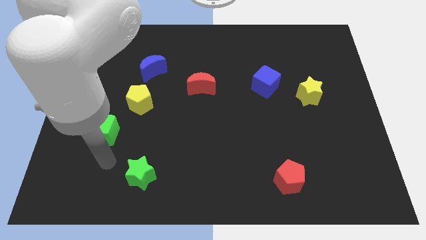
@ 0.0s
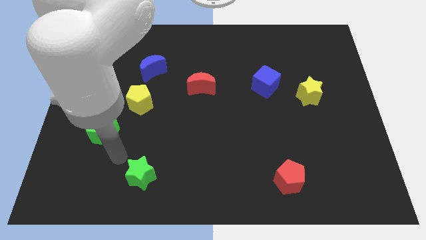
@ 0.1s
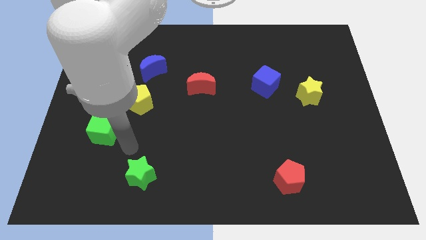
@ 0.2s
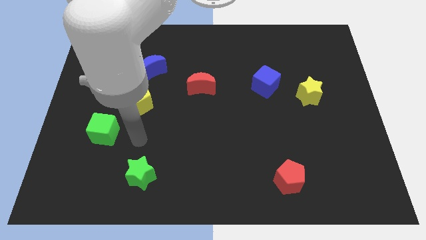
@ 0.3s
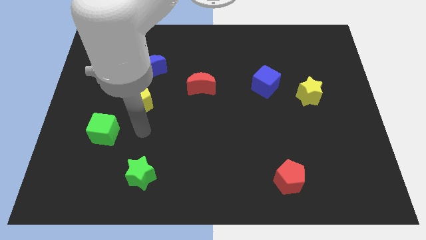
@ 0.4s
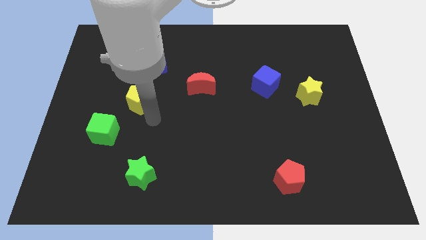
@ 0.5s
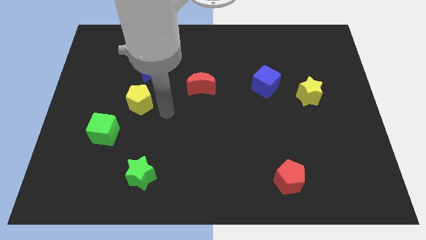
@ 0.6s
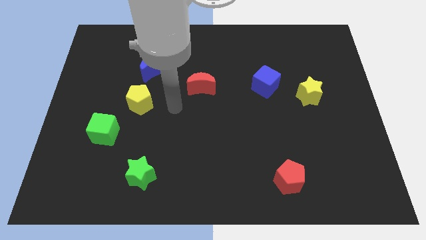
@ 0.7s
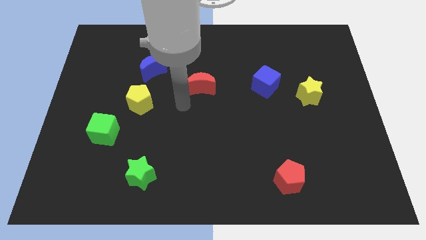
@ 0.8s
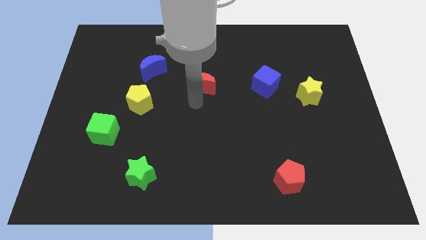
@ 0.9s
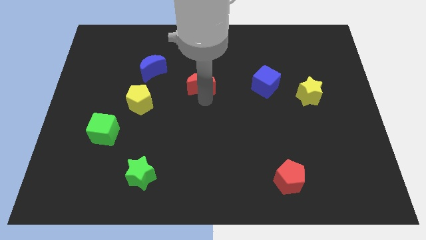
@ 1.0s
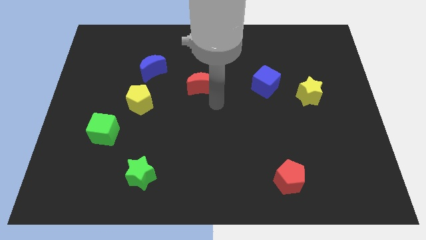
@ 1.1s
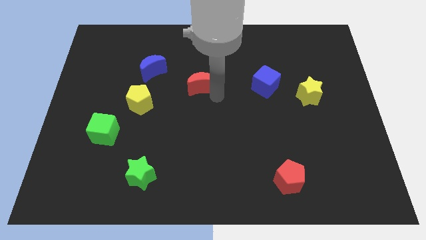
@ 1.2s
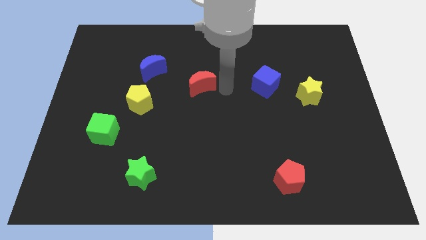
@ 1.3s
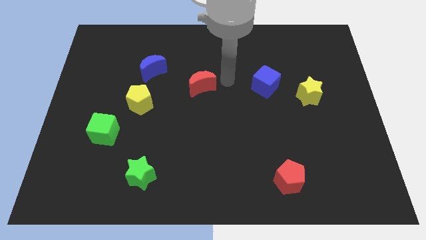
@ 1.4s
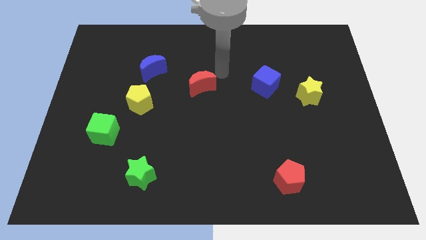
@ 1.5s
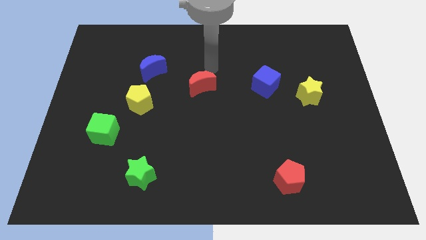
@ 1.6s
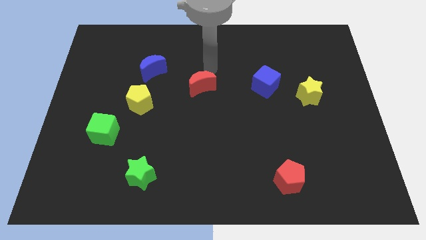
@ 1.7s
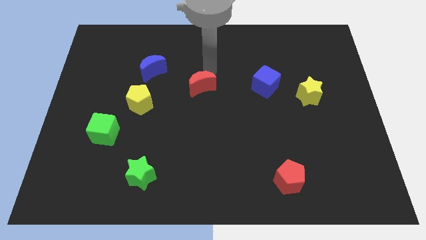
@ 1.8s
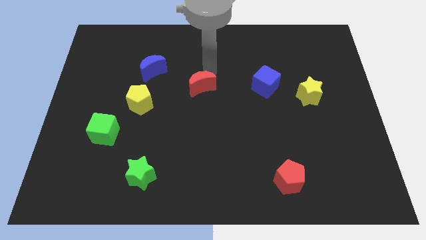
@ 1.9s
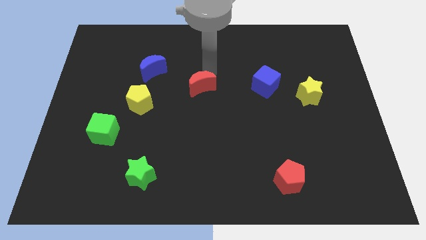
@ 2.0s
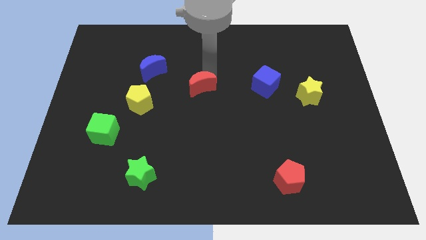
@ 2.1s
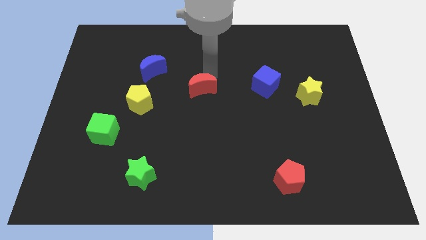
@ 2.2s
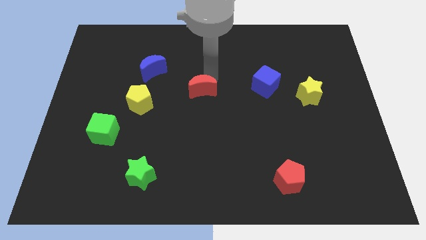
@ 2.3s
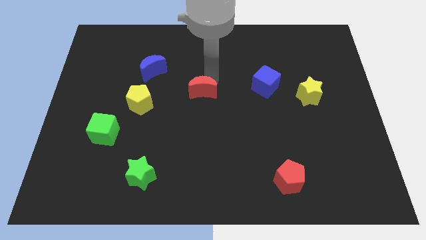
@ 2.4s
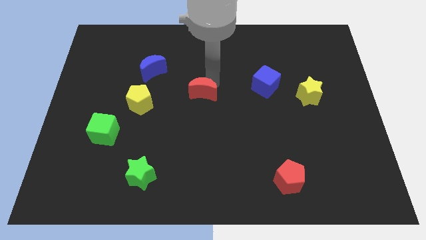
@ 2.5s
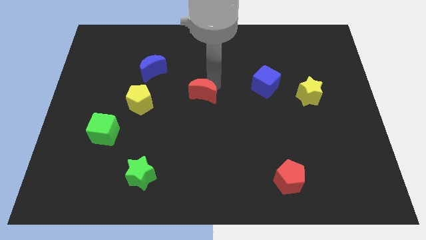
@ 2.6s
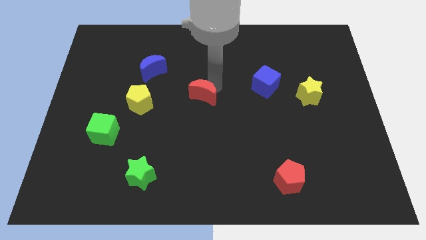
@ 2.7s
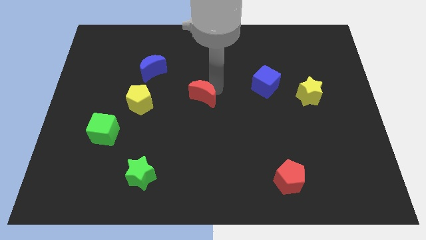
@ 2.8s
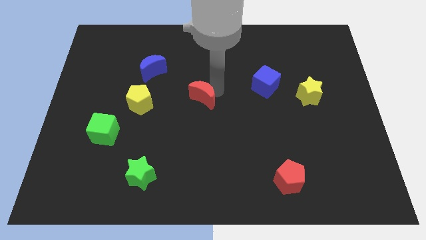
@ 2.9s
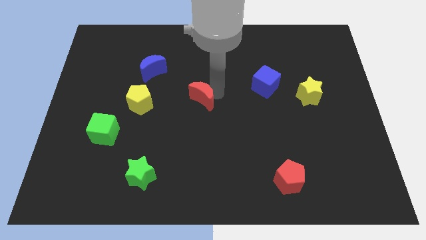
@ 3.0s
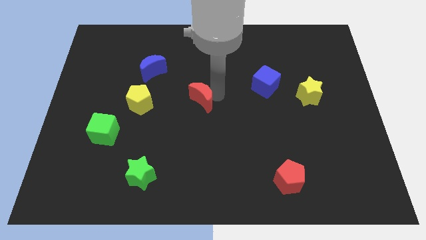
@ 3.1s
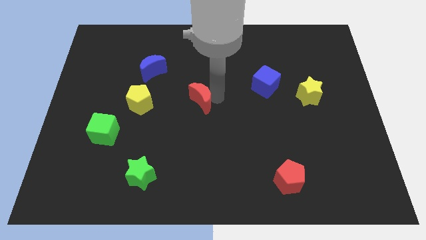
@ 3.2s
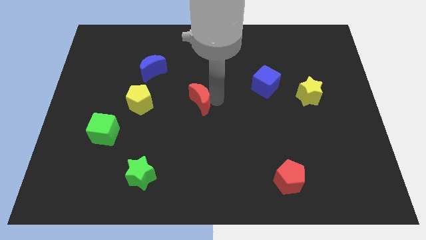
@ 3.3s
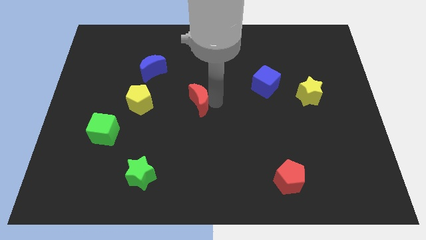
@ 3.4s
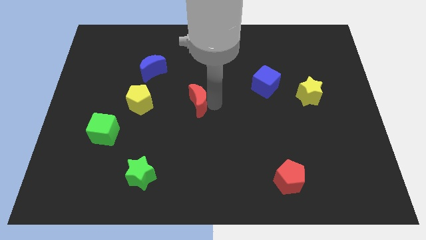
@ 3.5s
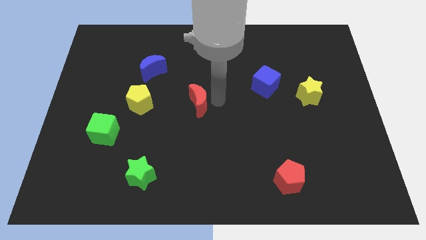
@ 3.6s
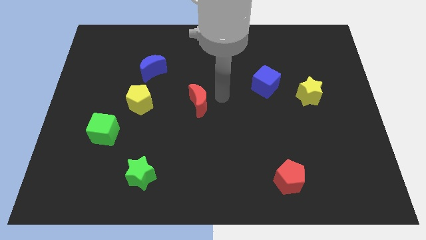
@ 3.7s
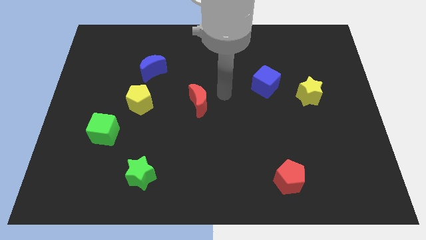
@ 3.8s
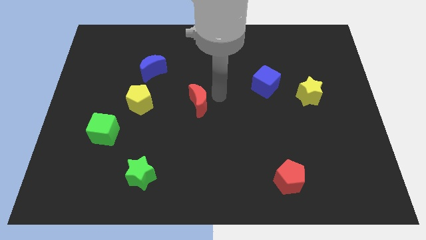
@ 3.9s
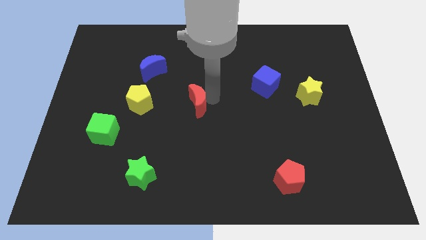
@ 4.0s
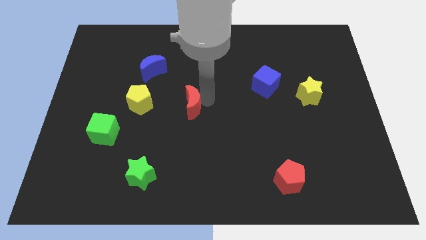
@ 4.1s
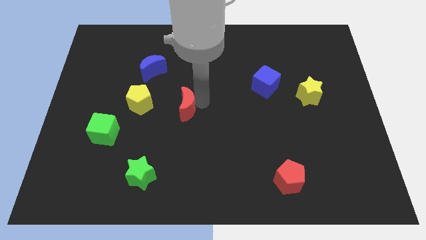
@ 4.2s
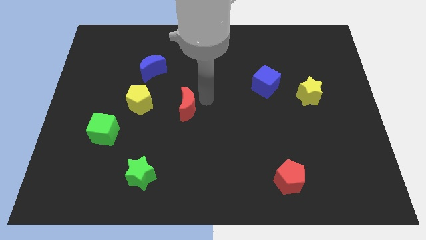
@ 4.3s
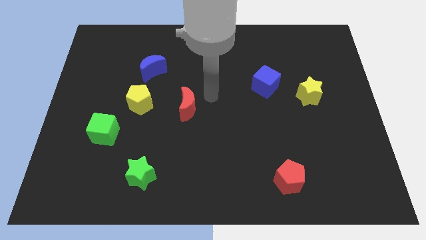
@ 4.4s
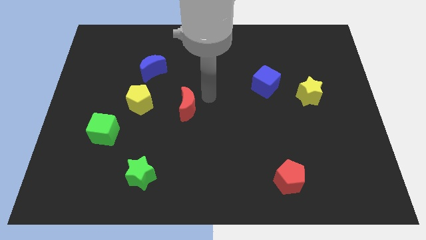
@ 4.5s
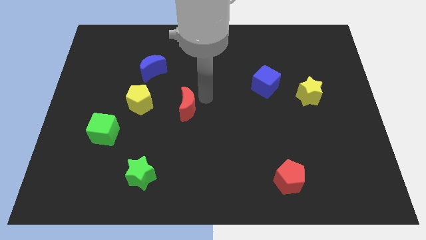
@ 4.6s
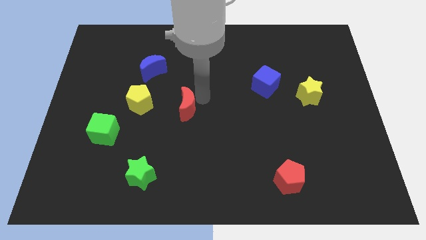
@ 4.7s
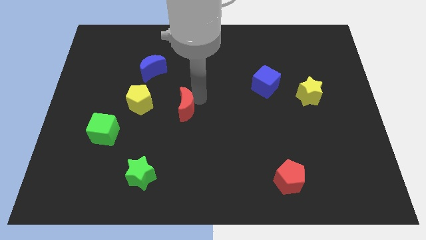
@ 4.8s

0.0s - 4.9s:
push the red moon down and left slightly

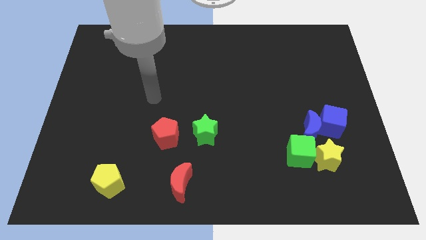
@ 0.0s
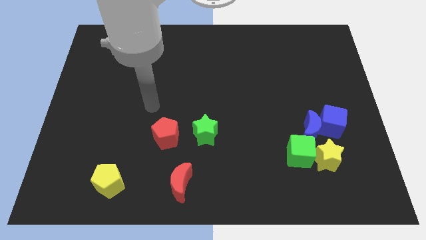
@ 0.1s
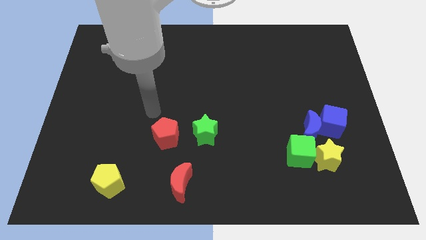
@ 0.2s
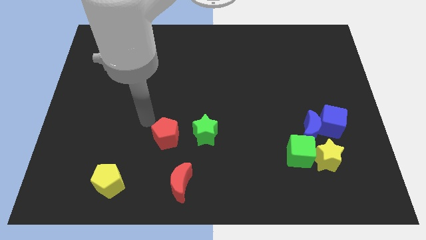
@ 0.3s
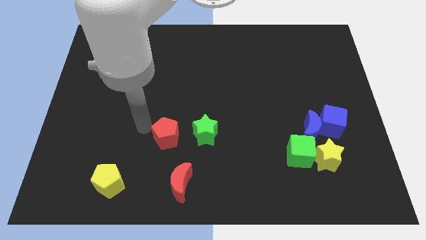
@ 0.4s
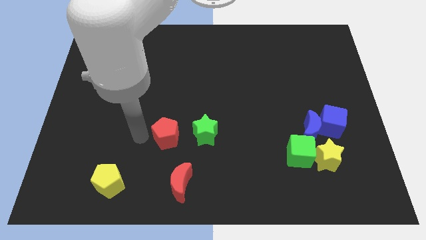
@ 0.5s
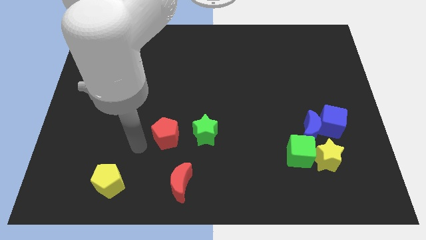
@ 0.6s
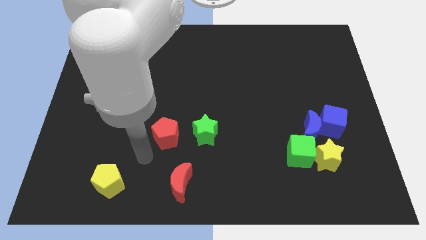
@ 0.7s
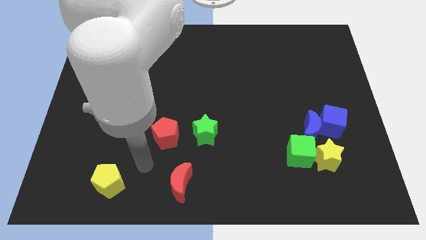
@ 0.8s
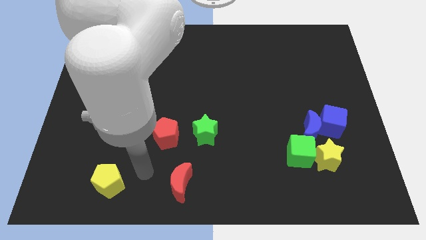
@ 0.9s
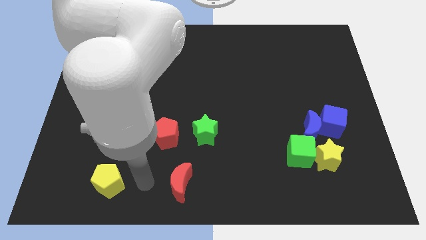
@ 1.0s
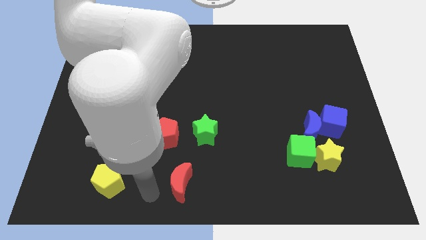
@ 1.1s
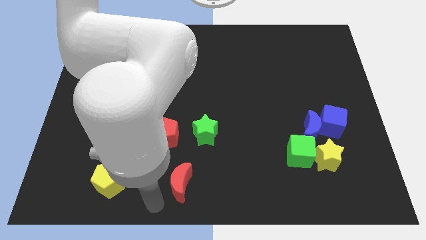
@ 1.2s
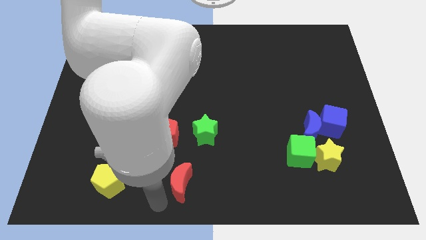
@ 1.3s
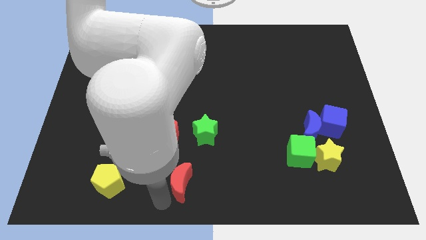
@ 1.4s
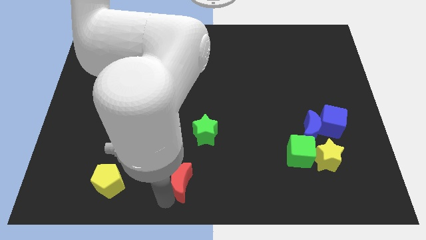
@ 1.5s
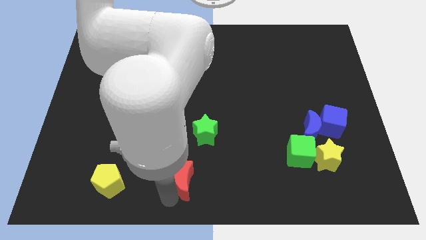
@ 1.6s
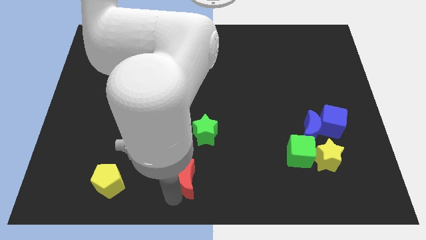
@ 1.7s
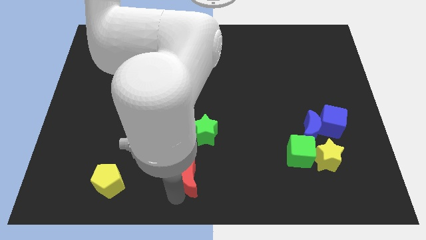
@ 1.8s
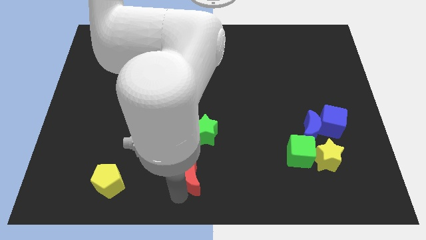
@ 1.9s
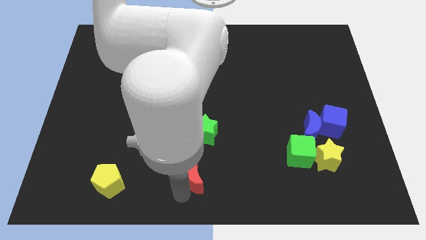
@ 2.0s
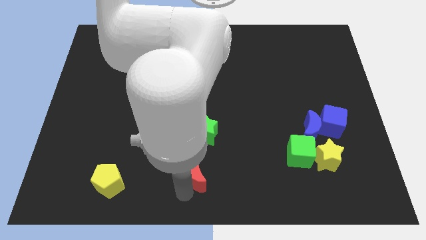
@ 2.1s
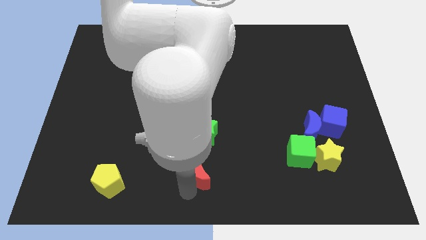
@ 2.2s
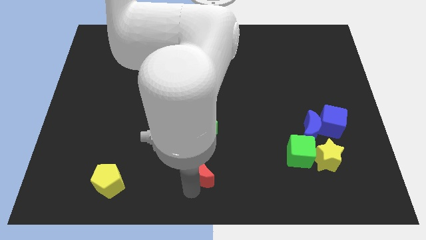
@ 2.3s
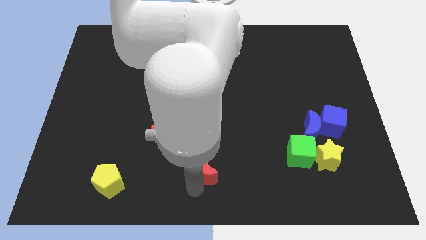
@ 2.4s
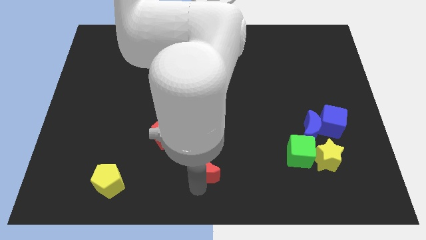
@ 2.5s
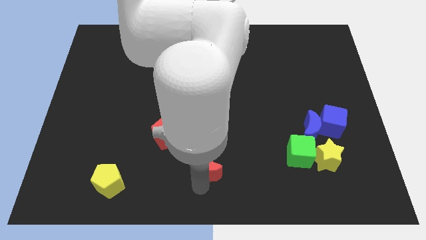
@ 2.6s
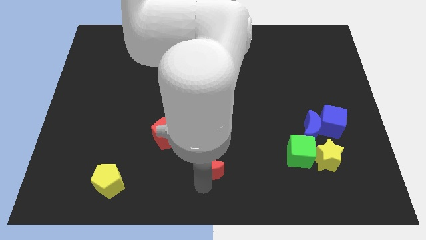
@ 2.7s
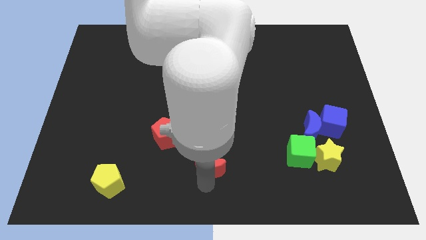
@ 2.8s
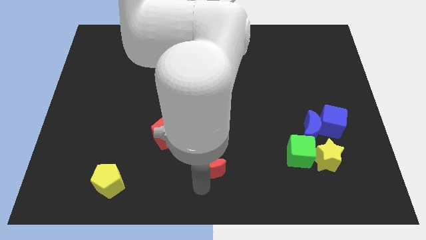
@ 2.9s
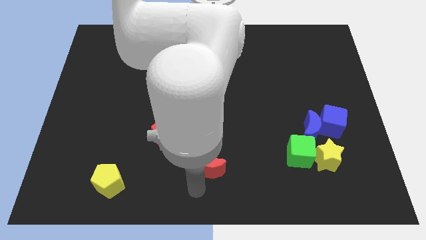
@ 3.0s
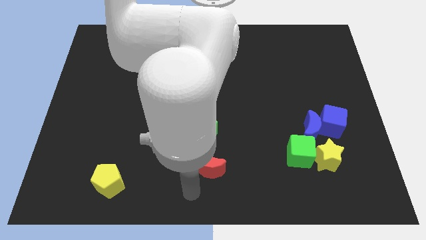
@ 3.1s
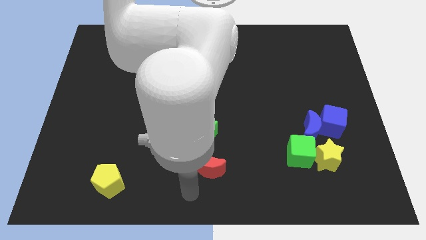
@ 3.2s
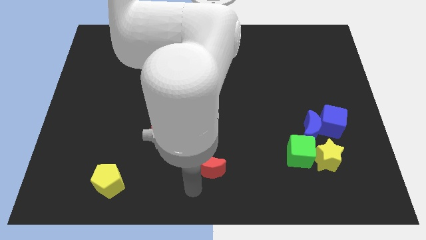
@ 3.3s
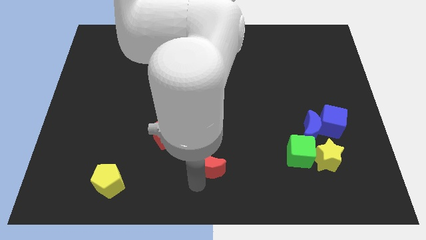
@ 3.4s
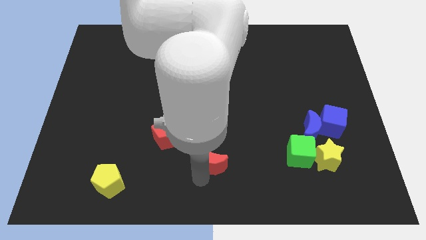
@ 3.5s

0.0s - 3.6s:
push the red moon slightly diagonally up and to the right
